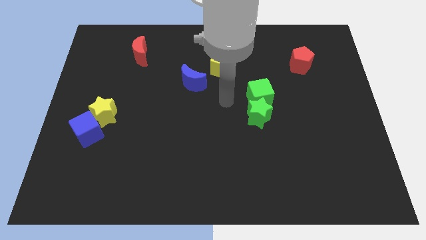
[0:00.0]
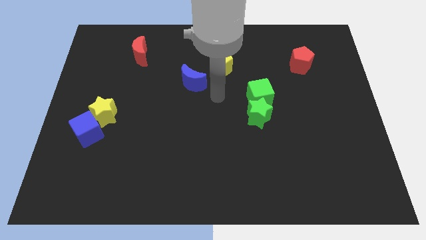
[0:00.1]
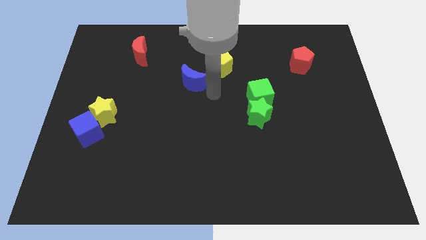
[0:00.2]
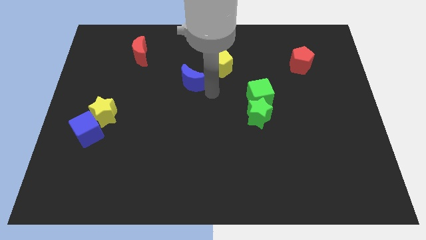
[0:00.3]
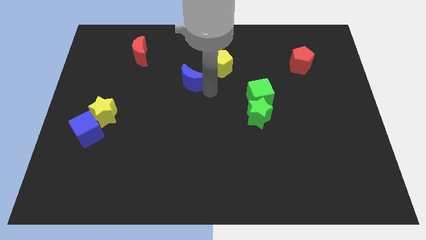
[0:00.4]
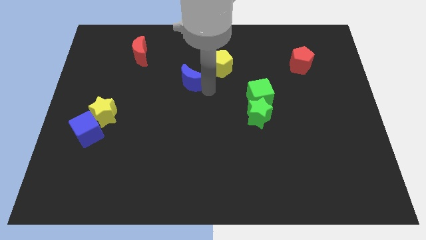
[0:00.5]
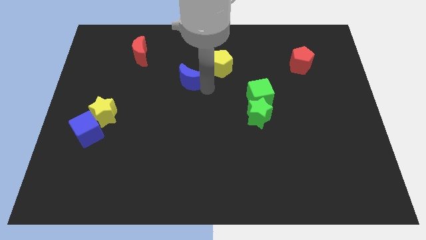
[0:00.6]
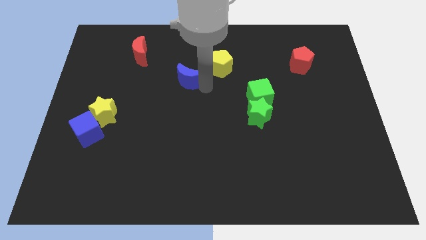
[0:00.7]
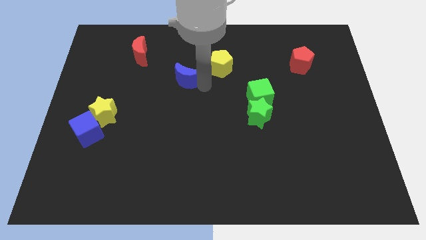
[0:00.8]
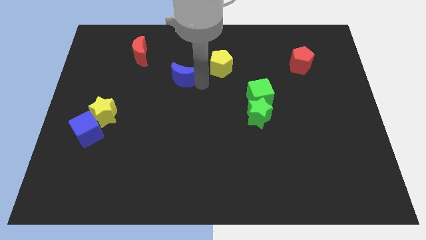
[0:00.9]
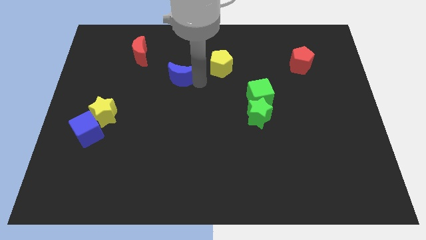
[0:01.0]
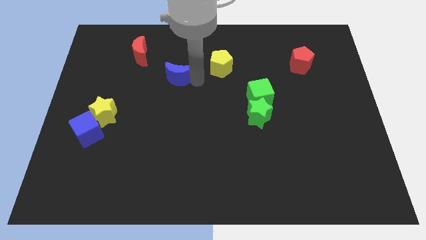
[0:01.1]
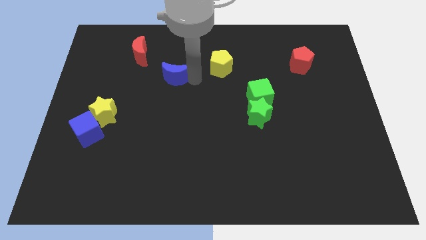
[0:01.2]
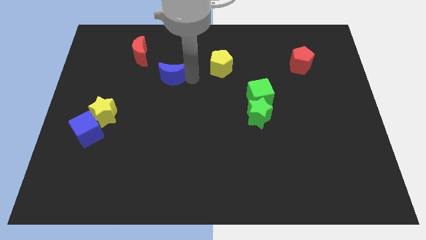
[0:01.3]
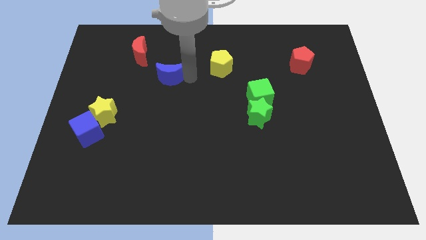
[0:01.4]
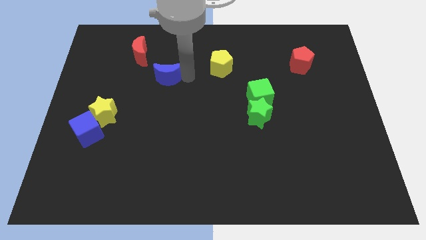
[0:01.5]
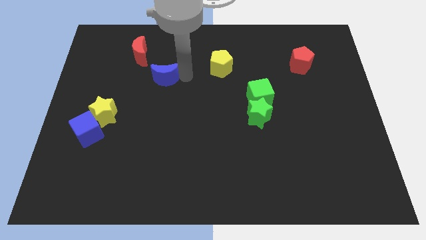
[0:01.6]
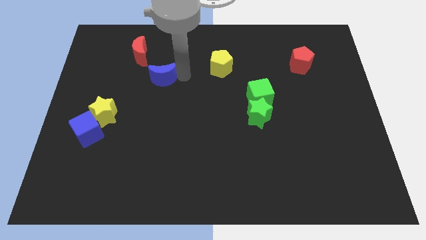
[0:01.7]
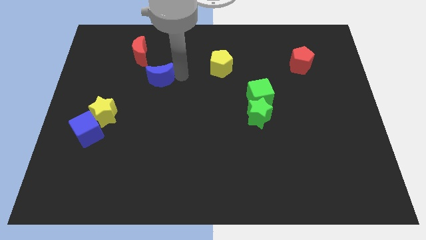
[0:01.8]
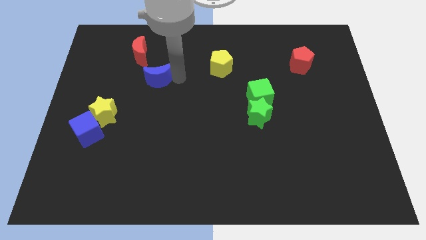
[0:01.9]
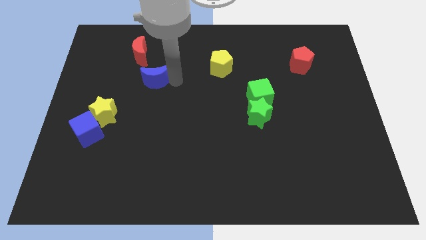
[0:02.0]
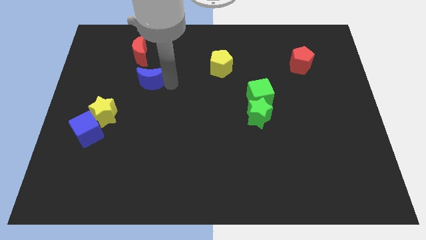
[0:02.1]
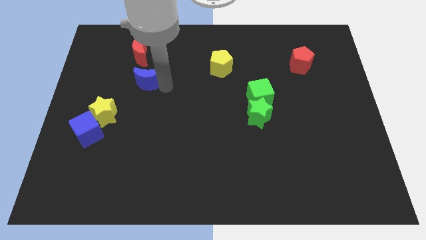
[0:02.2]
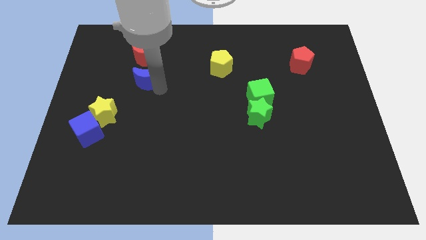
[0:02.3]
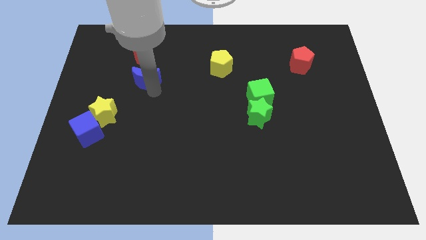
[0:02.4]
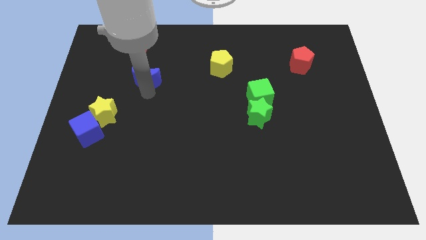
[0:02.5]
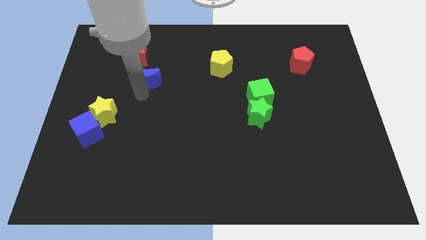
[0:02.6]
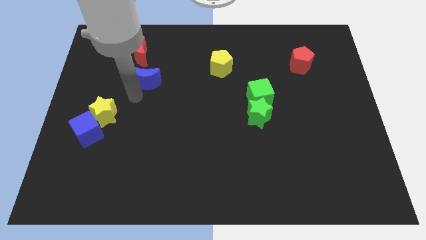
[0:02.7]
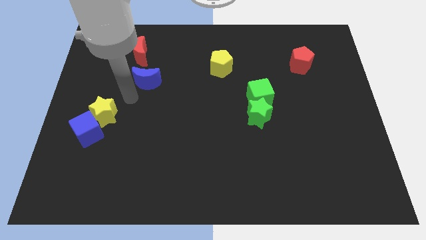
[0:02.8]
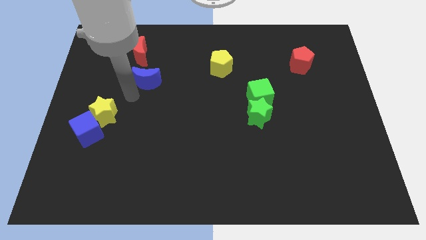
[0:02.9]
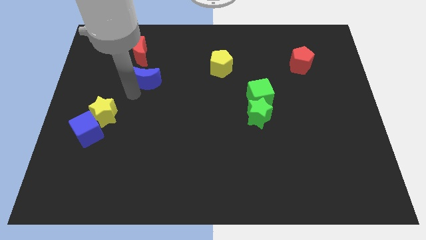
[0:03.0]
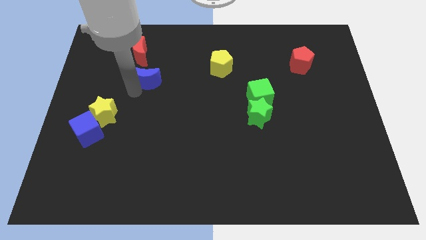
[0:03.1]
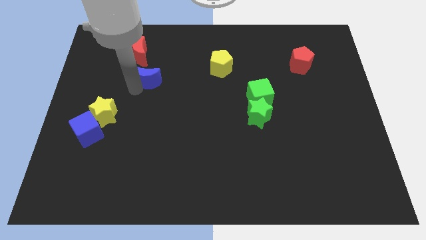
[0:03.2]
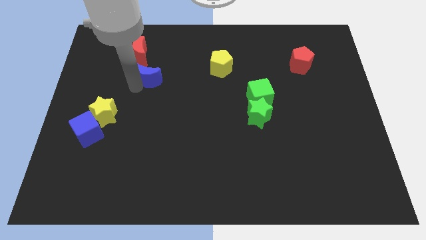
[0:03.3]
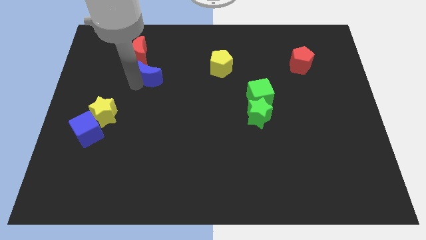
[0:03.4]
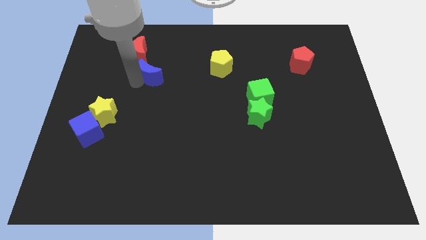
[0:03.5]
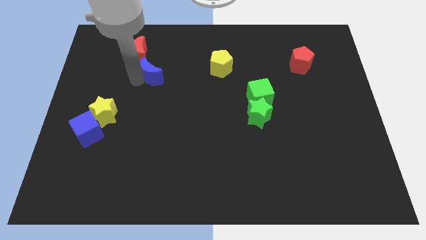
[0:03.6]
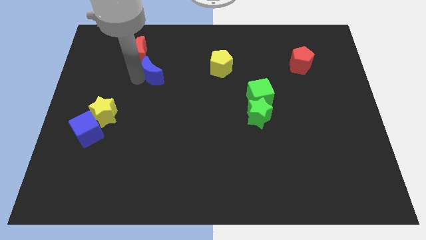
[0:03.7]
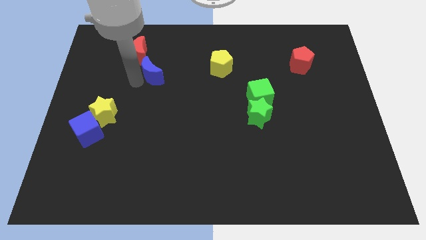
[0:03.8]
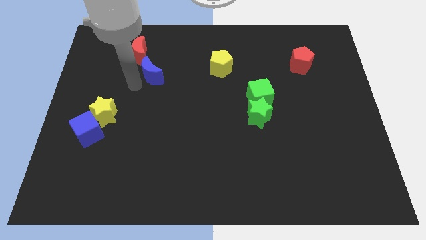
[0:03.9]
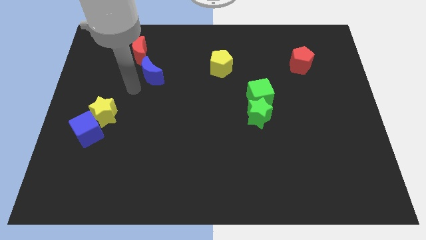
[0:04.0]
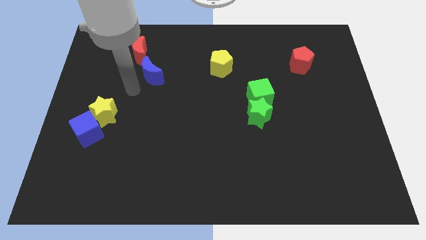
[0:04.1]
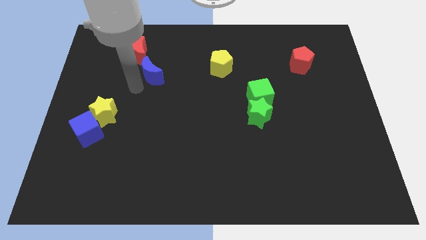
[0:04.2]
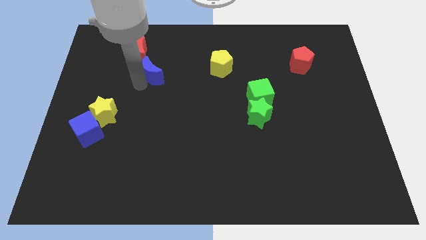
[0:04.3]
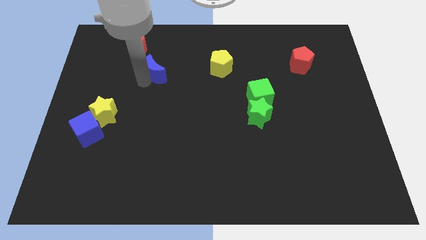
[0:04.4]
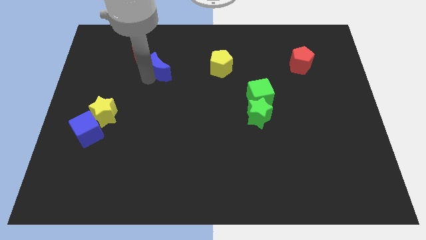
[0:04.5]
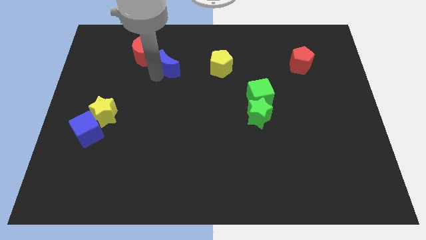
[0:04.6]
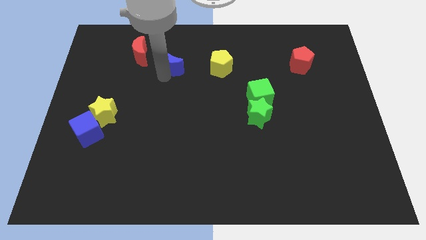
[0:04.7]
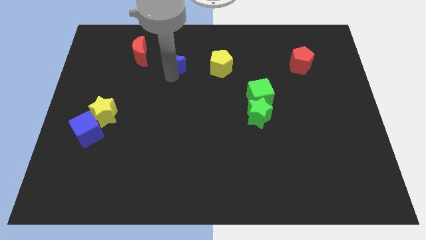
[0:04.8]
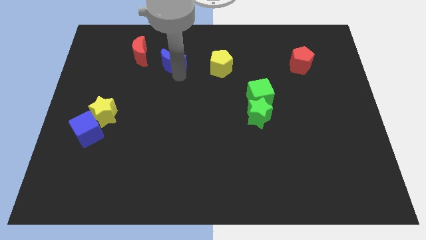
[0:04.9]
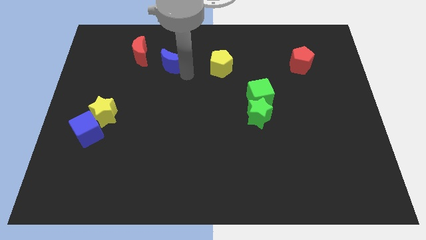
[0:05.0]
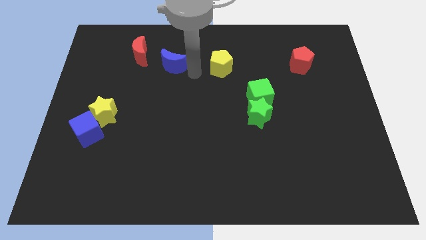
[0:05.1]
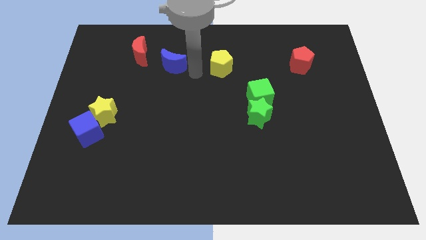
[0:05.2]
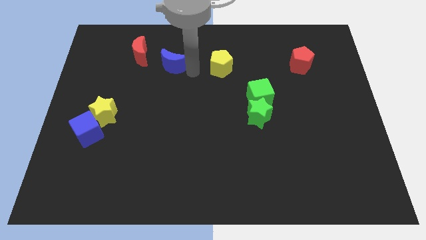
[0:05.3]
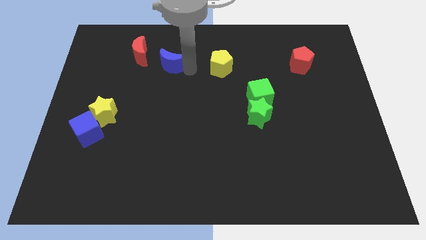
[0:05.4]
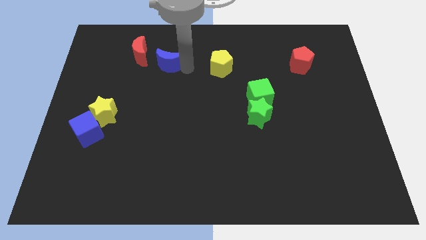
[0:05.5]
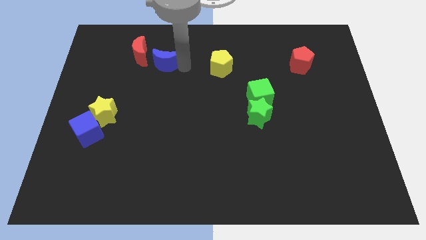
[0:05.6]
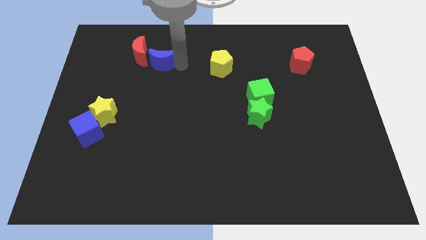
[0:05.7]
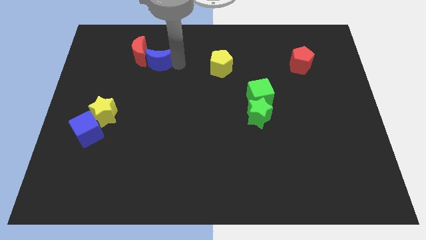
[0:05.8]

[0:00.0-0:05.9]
push the blue moon towards the red moon
